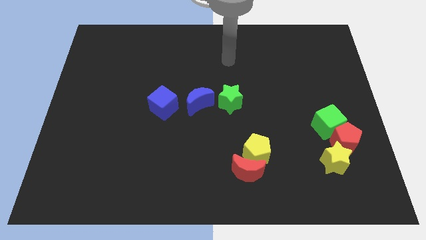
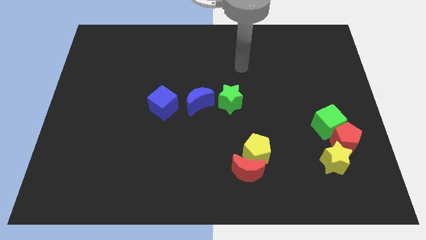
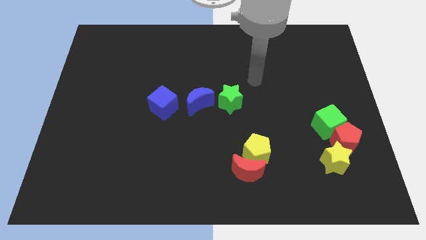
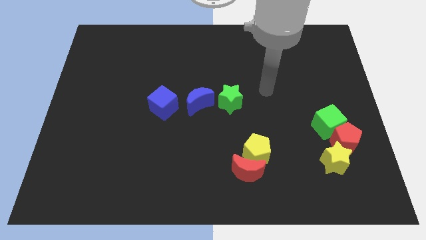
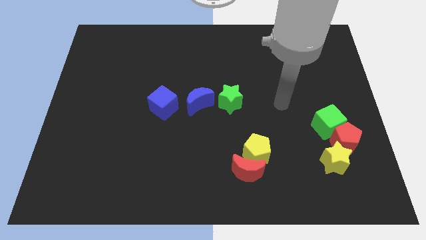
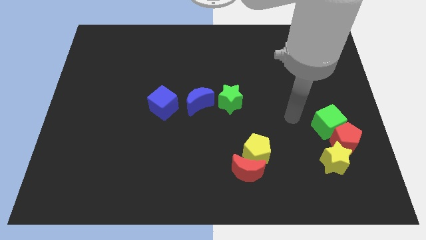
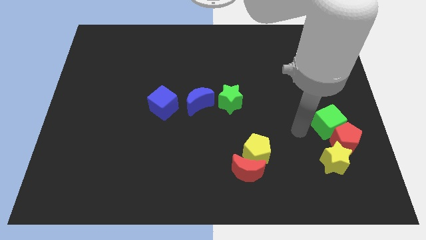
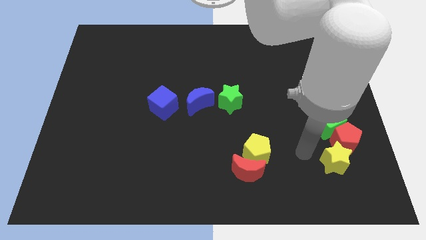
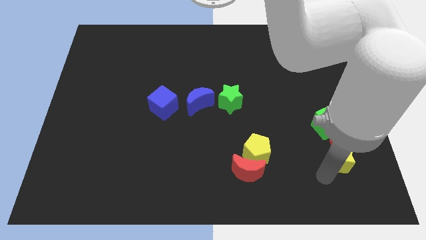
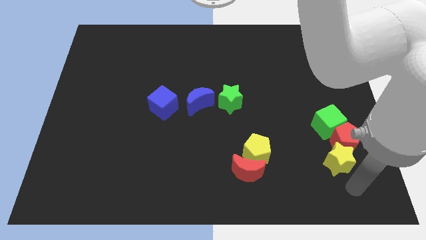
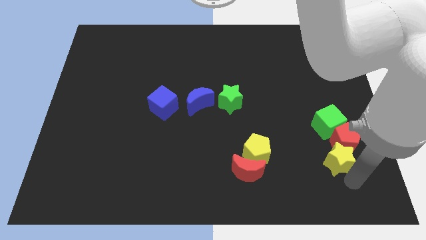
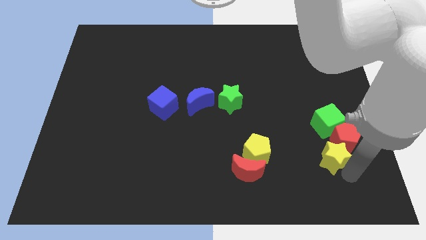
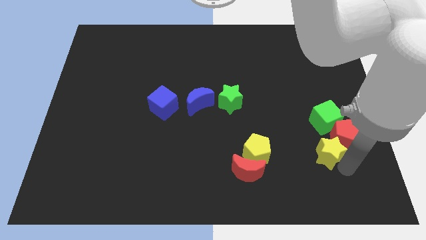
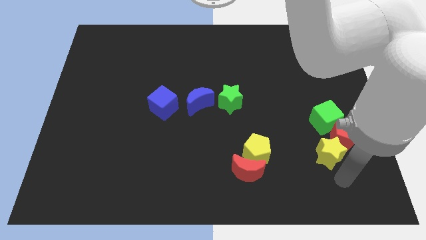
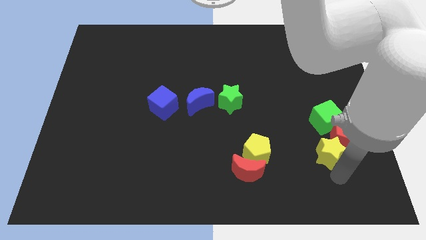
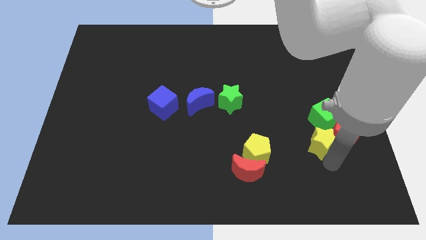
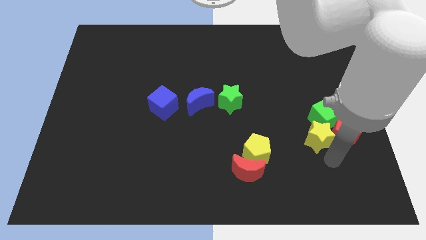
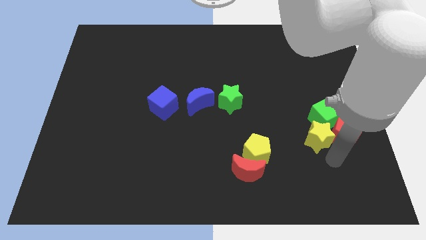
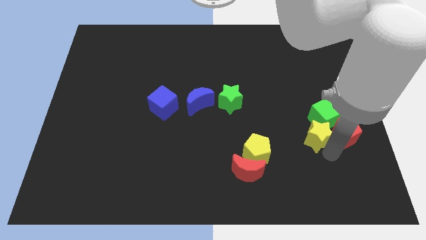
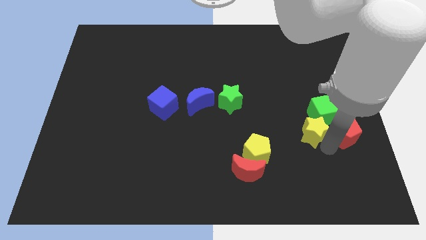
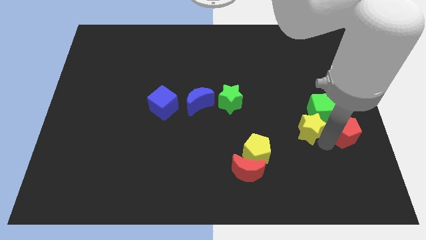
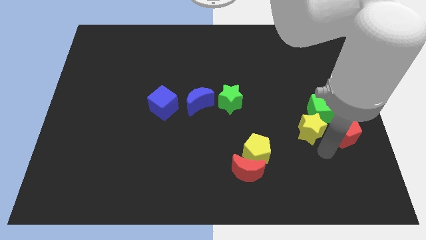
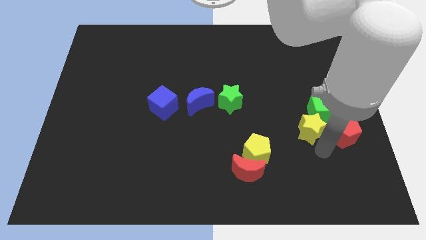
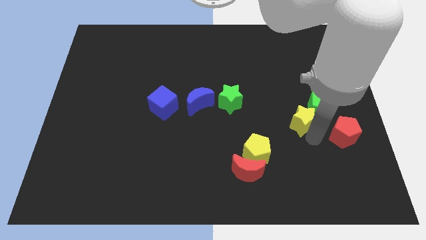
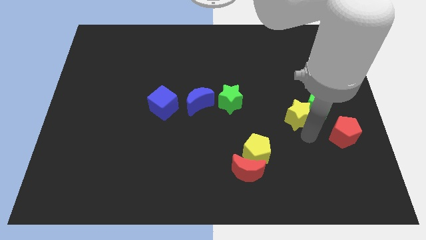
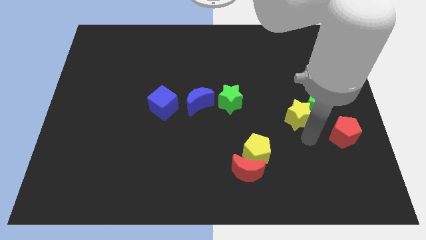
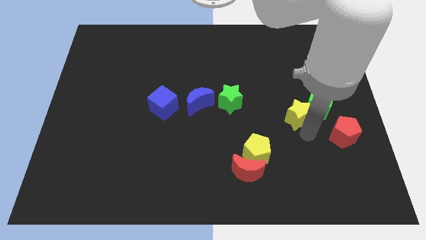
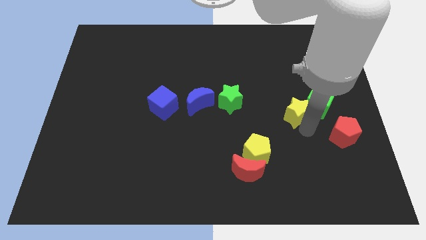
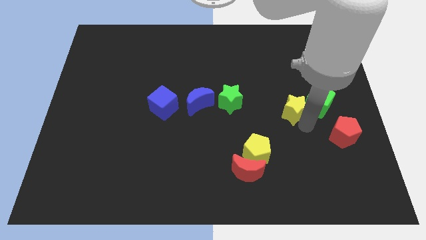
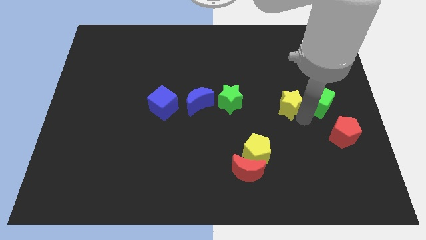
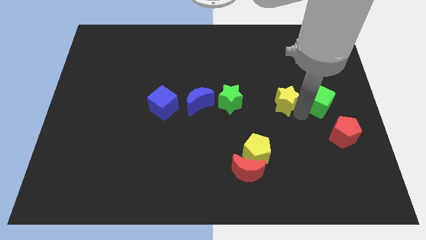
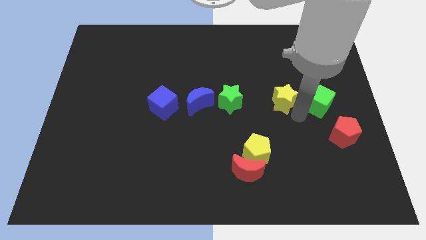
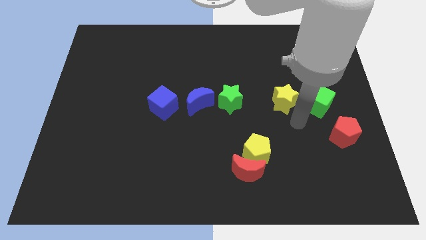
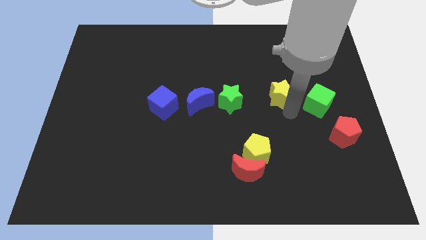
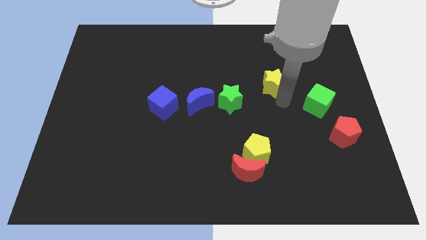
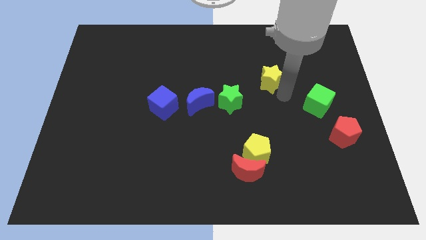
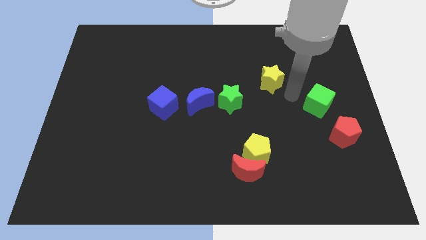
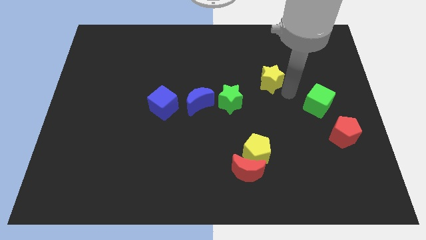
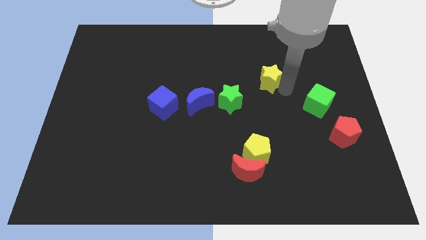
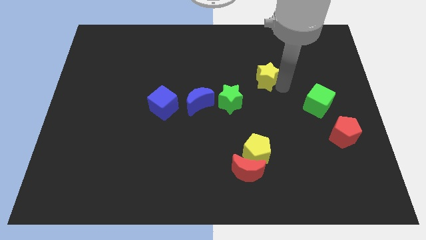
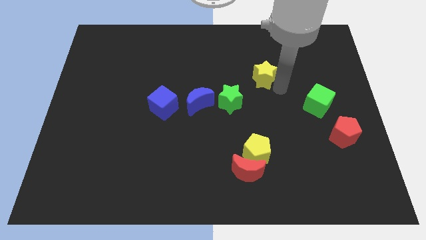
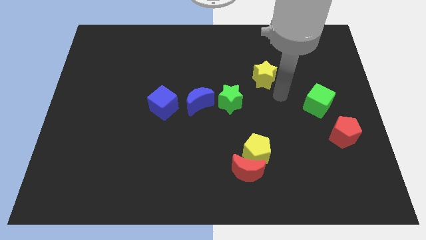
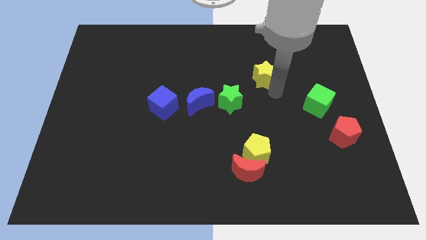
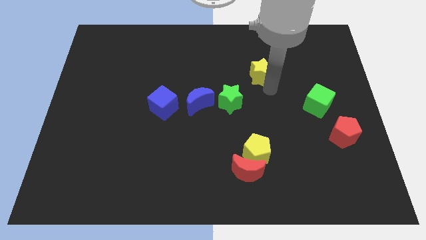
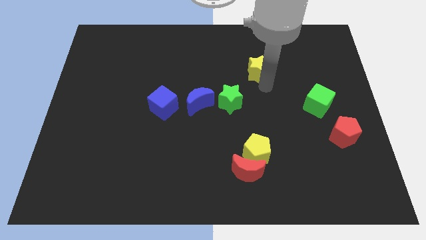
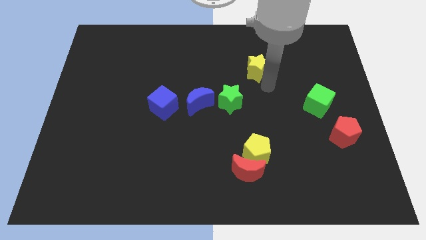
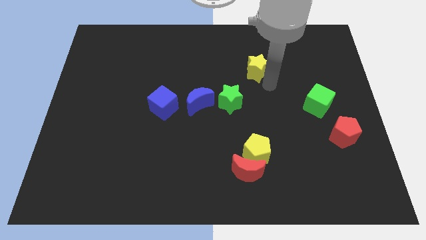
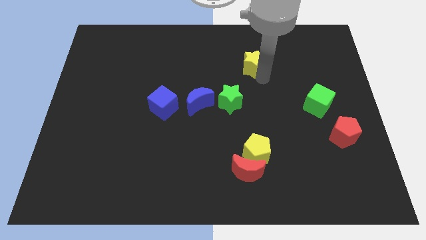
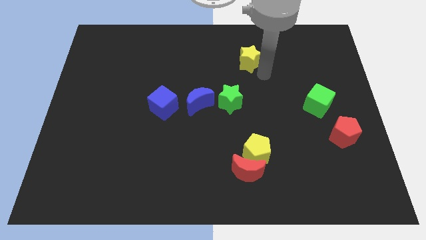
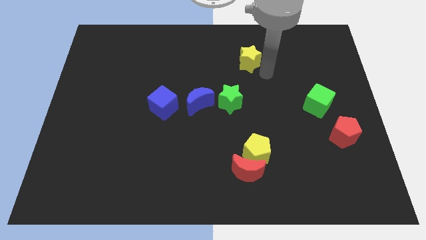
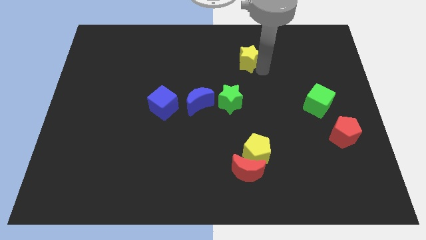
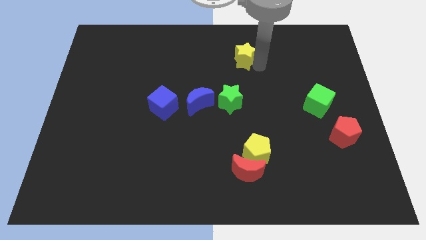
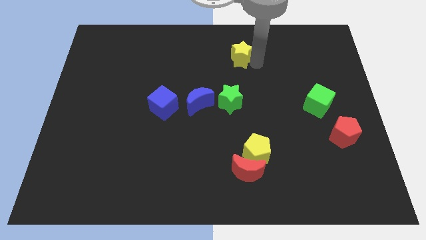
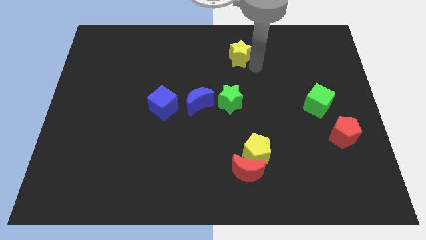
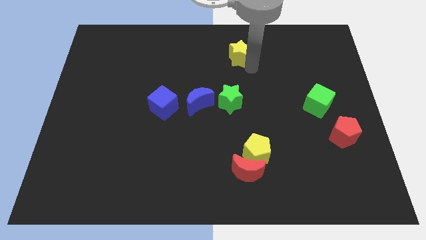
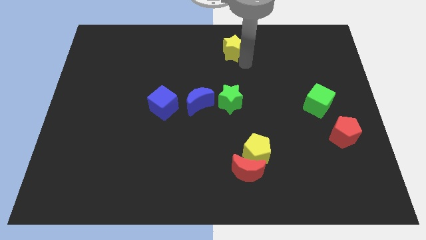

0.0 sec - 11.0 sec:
put the yellow star to the towards your base

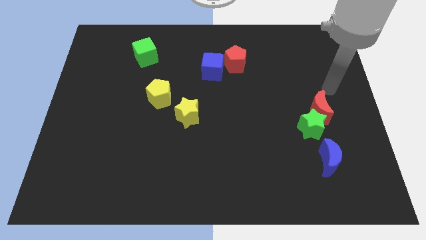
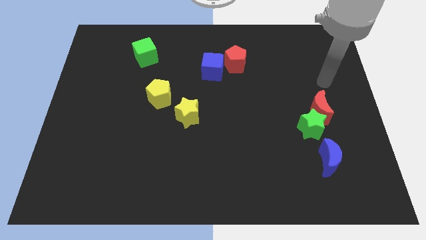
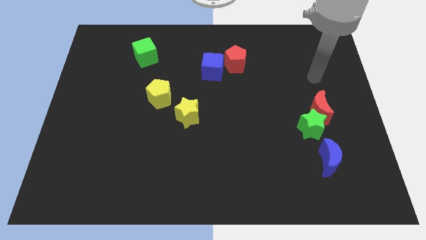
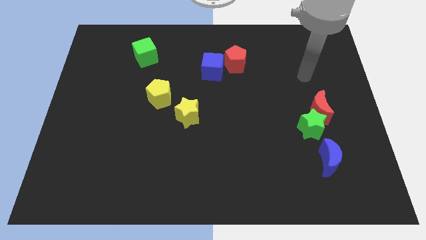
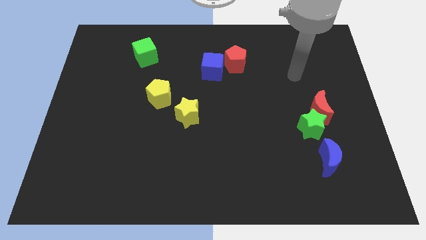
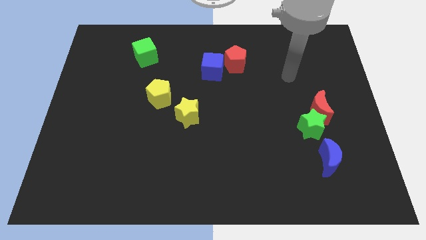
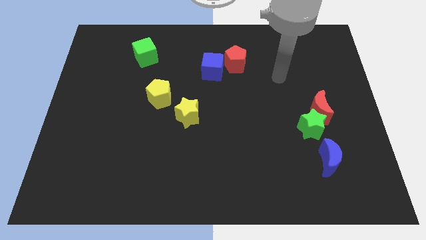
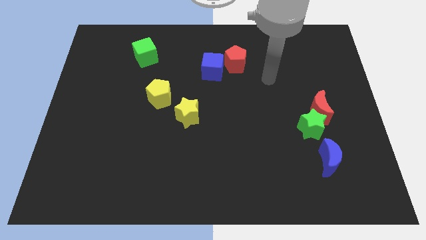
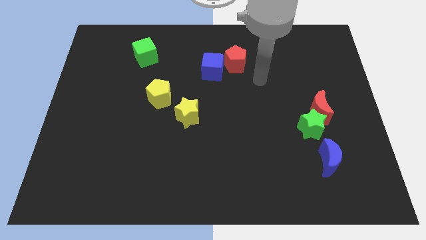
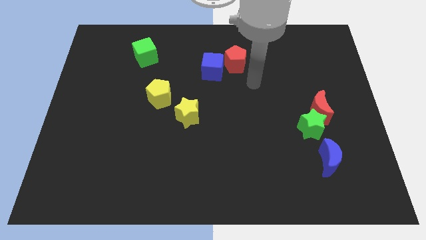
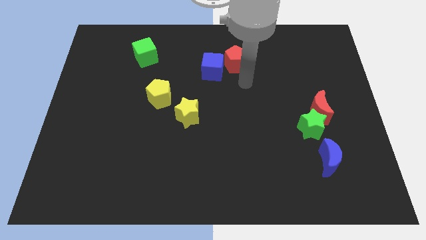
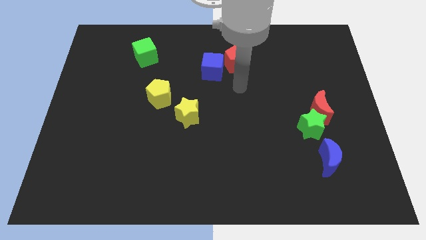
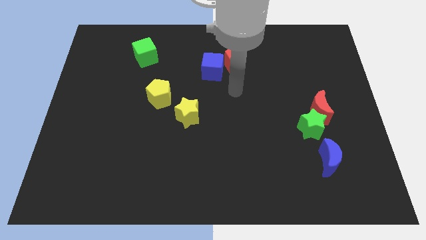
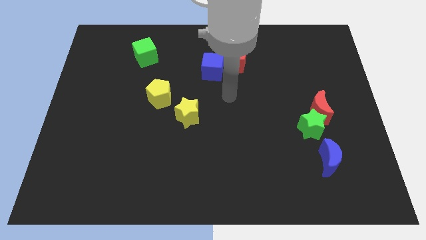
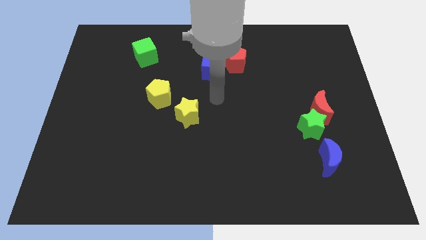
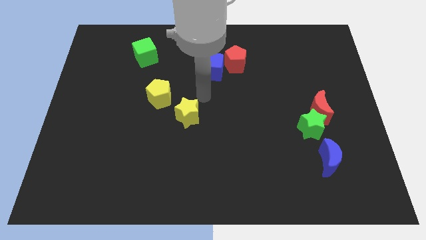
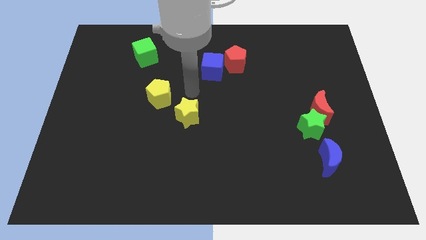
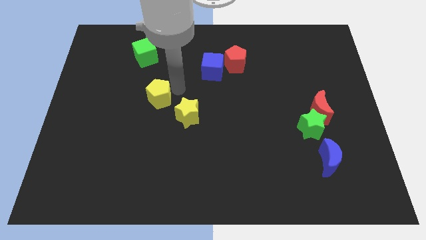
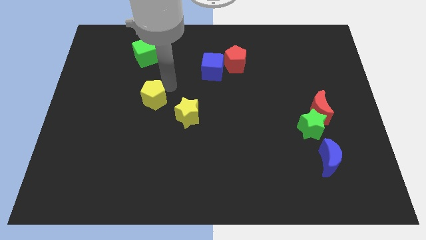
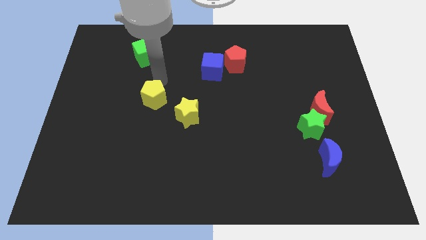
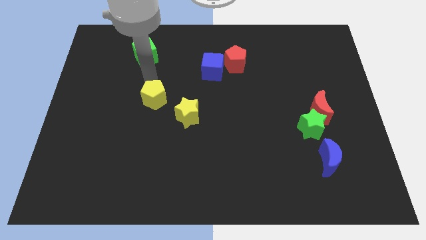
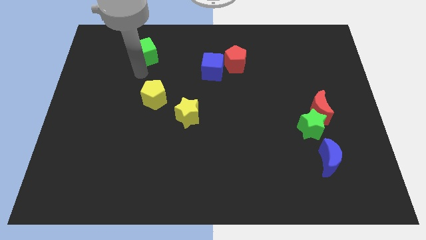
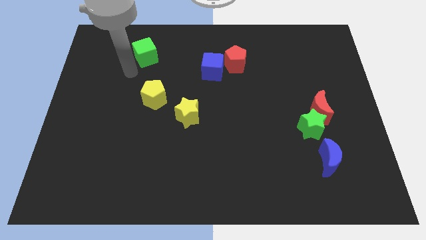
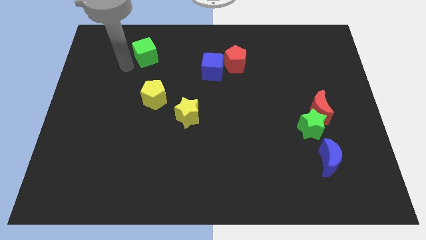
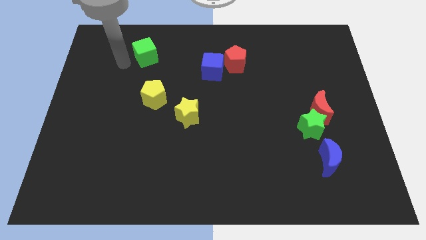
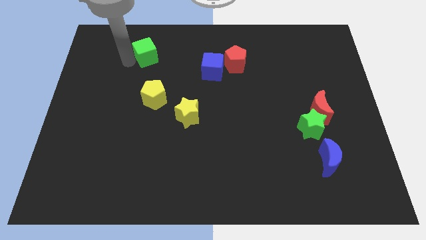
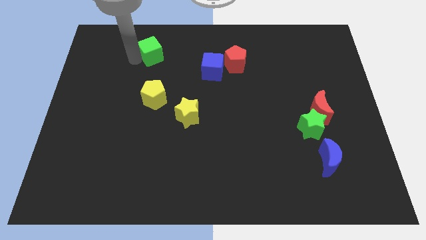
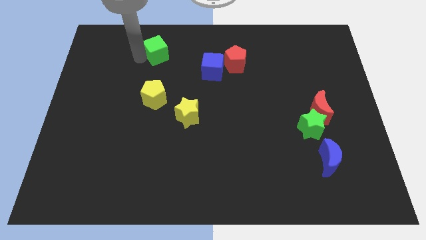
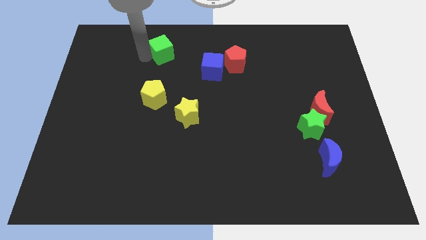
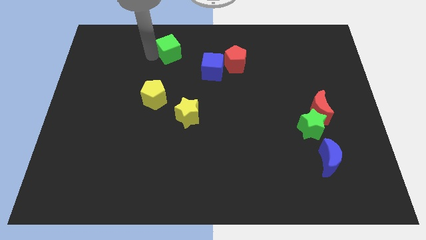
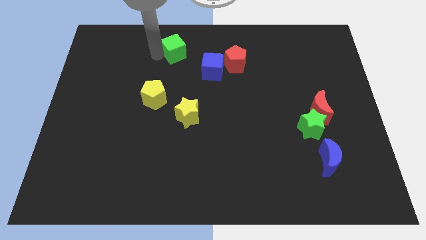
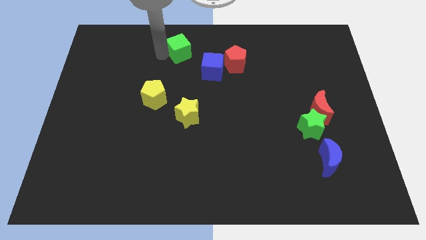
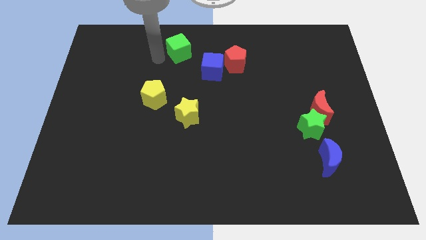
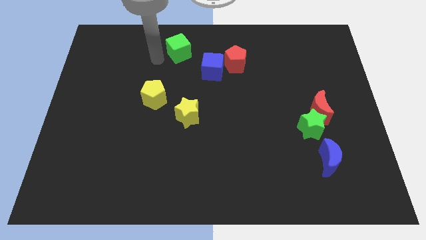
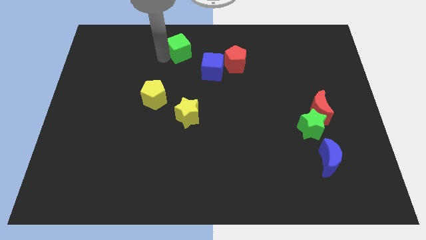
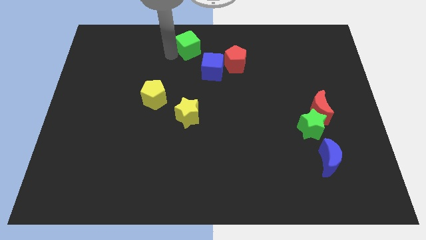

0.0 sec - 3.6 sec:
move the green cube to the top side
